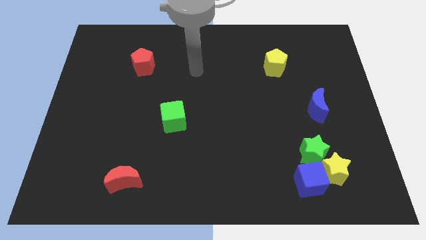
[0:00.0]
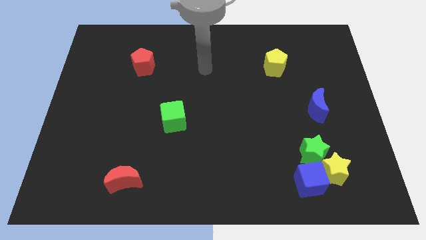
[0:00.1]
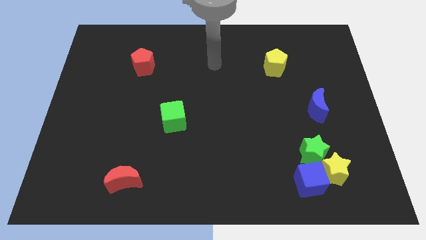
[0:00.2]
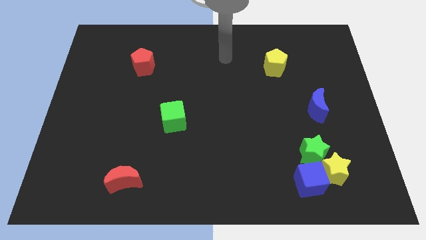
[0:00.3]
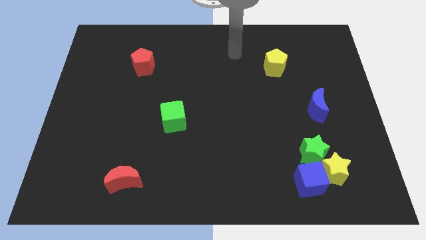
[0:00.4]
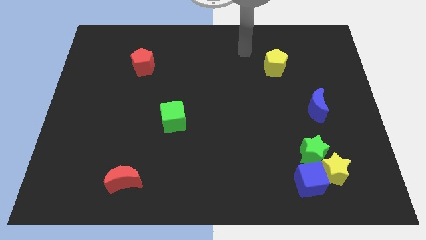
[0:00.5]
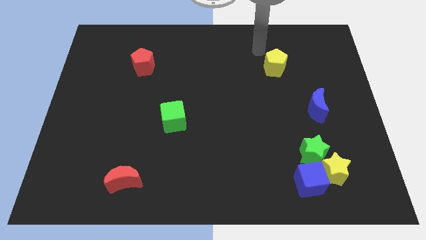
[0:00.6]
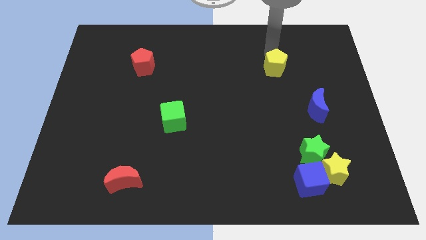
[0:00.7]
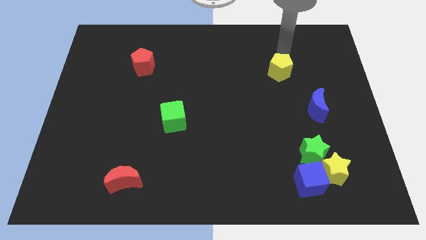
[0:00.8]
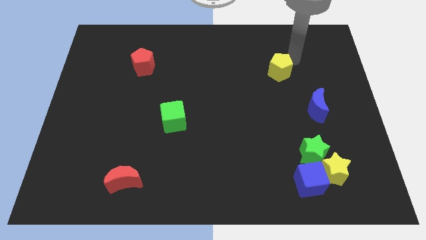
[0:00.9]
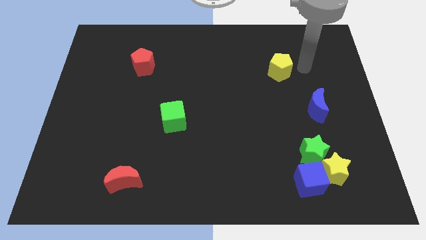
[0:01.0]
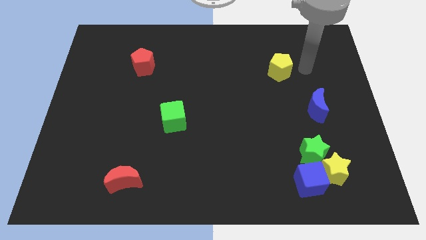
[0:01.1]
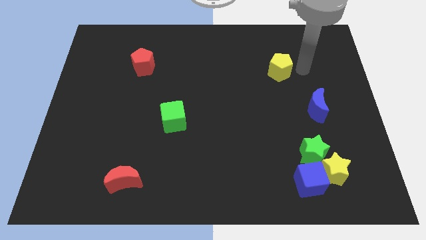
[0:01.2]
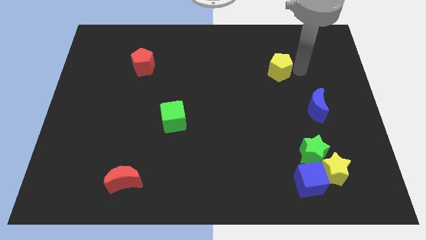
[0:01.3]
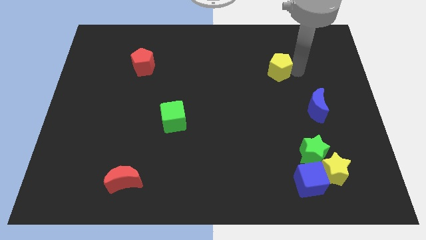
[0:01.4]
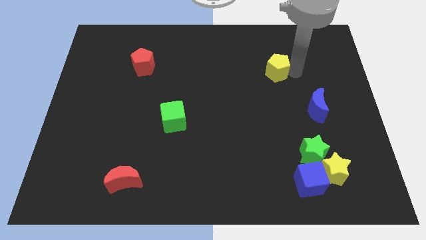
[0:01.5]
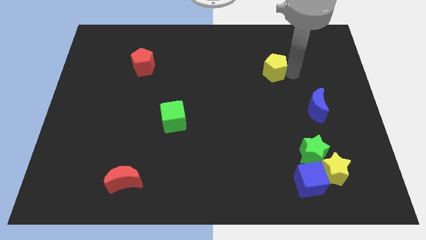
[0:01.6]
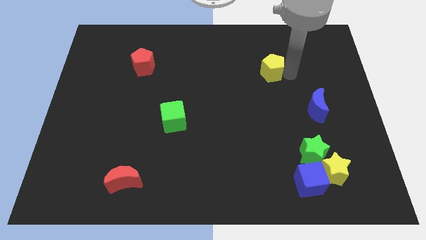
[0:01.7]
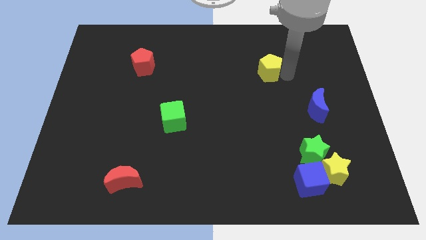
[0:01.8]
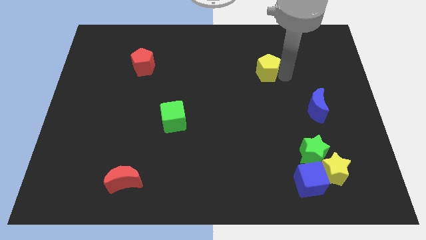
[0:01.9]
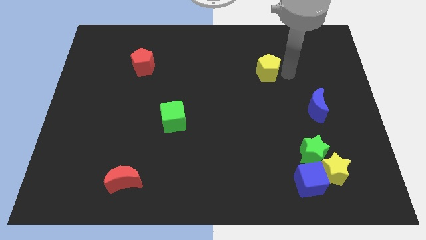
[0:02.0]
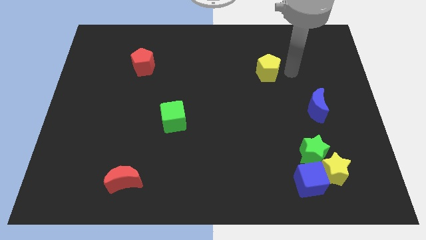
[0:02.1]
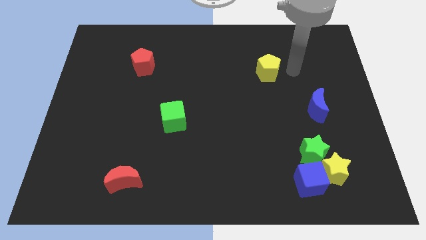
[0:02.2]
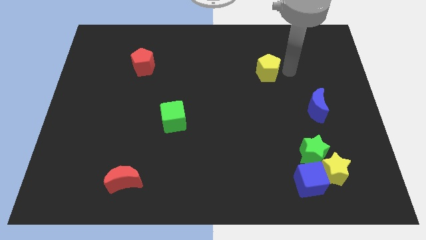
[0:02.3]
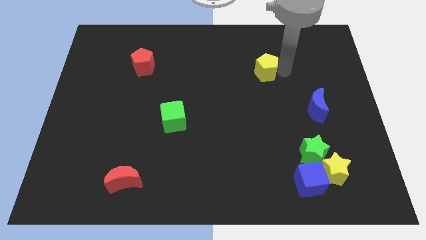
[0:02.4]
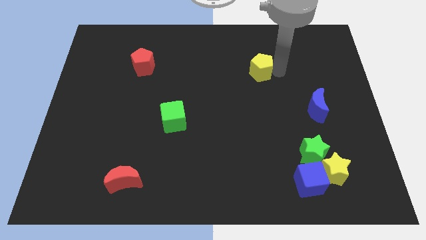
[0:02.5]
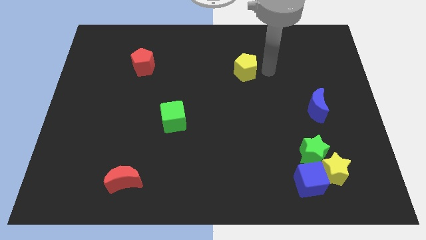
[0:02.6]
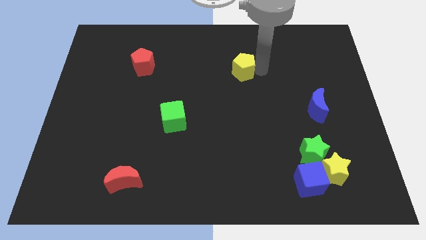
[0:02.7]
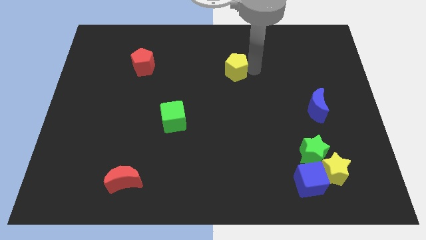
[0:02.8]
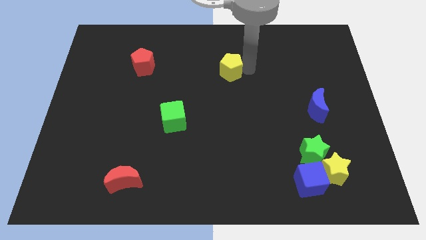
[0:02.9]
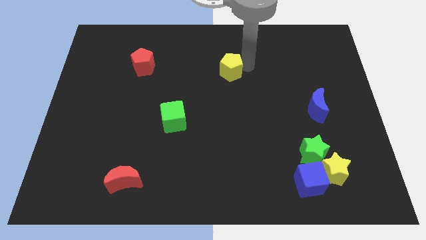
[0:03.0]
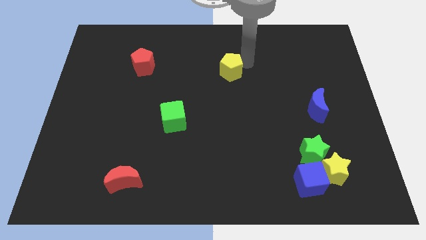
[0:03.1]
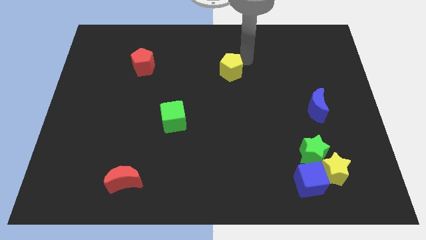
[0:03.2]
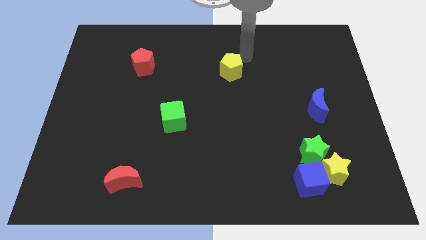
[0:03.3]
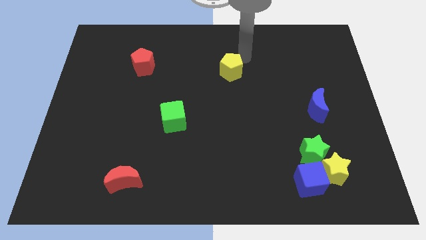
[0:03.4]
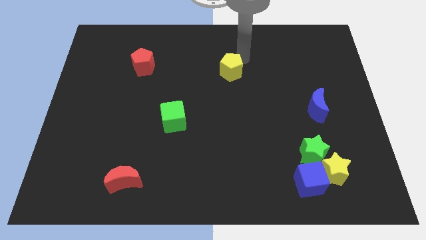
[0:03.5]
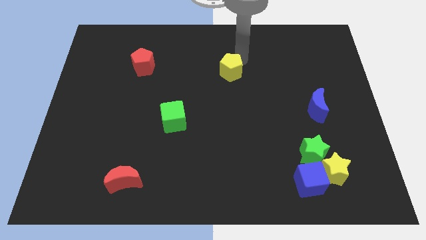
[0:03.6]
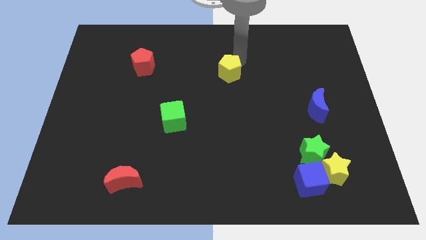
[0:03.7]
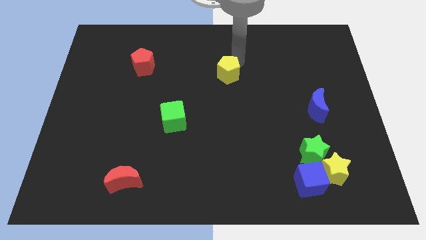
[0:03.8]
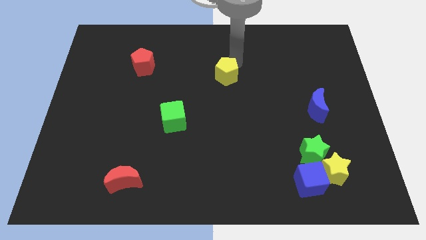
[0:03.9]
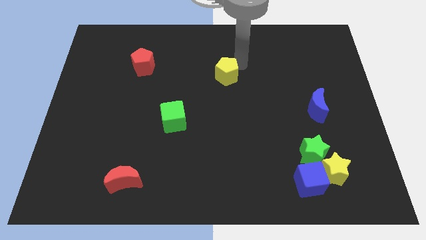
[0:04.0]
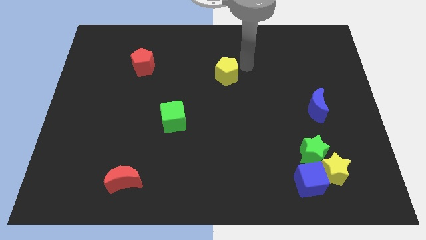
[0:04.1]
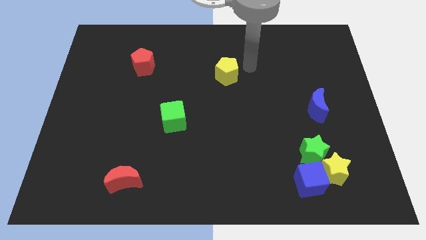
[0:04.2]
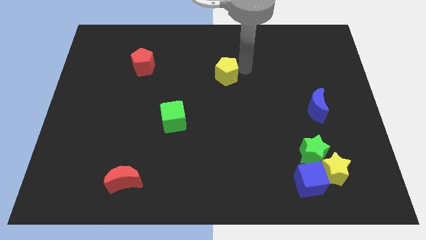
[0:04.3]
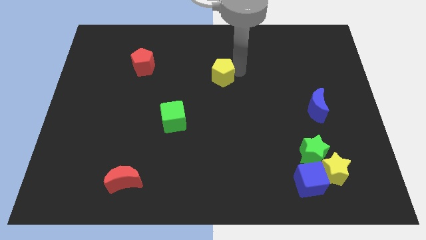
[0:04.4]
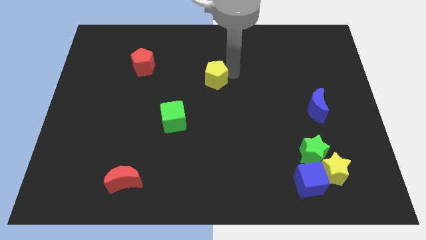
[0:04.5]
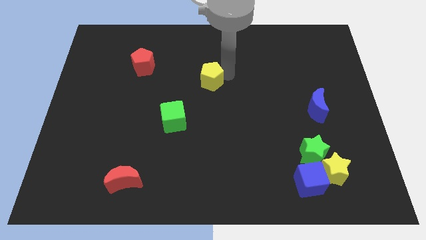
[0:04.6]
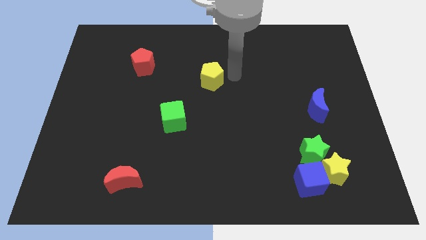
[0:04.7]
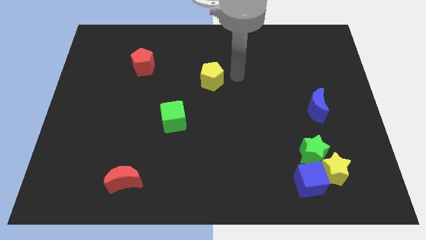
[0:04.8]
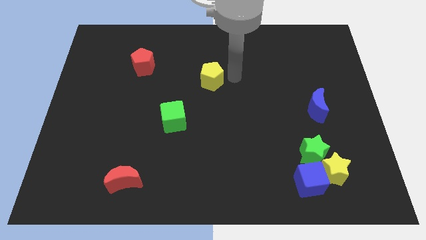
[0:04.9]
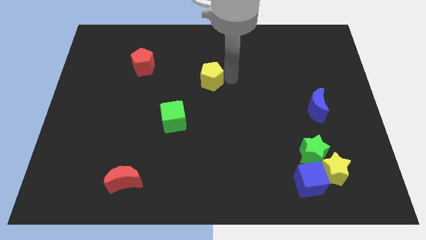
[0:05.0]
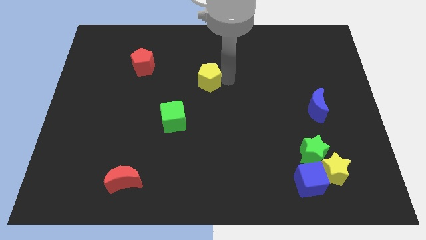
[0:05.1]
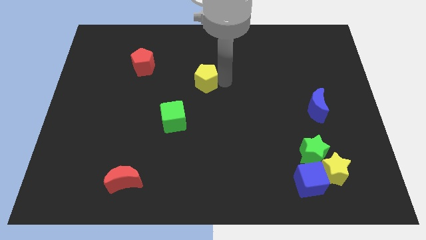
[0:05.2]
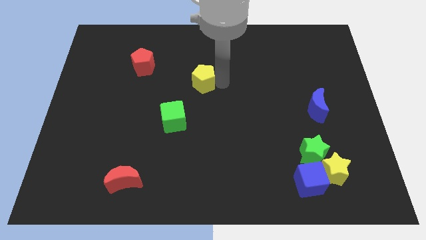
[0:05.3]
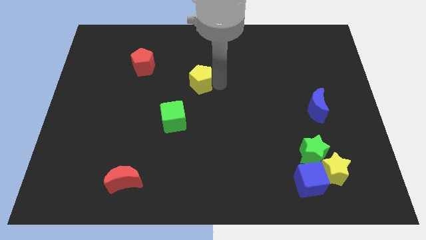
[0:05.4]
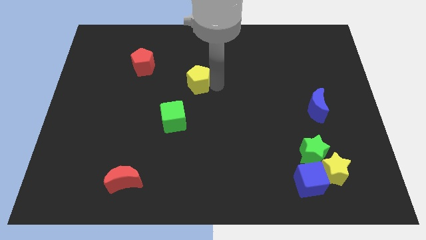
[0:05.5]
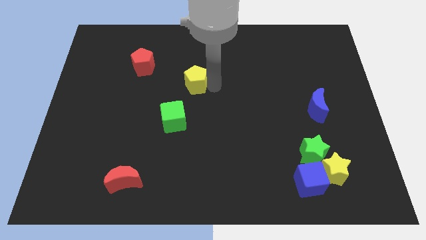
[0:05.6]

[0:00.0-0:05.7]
slide the yellow pentagon to the top side of the green cube
